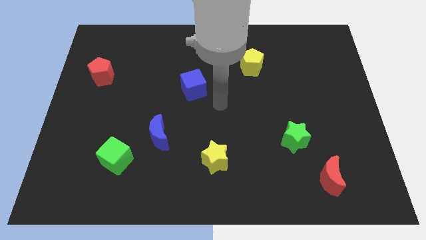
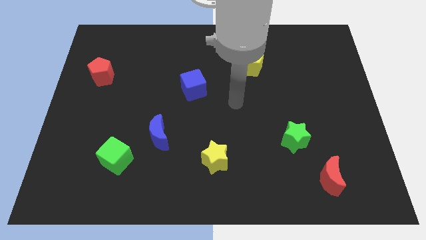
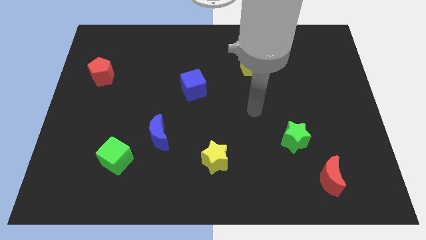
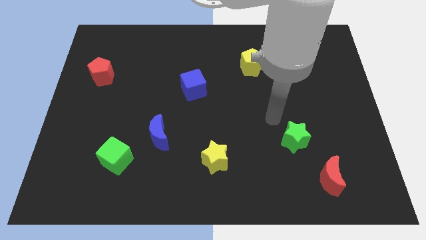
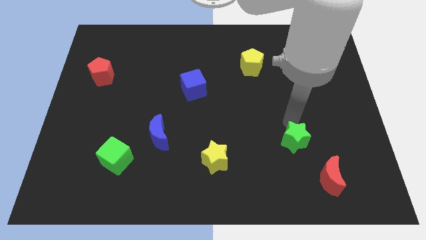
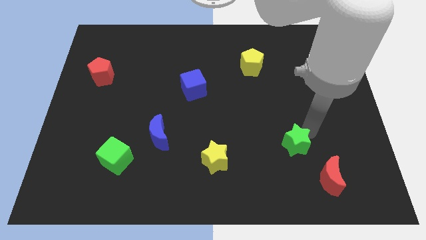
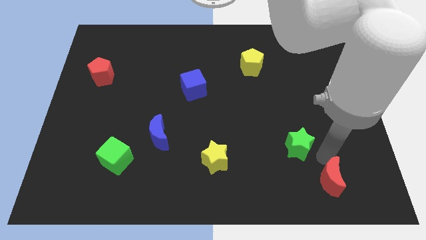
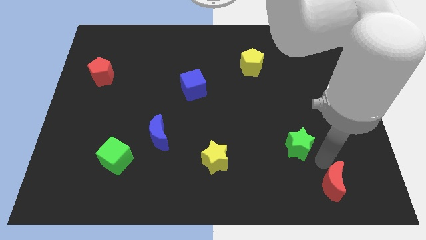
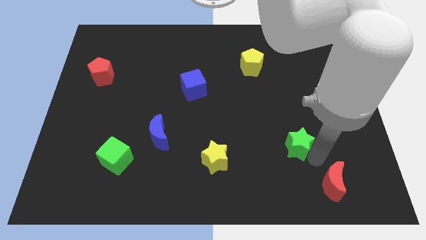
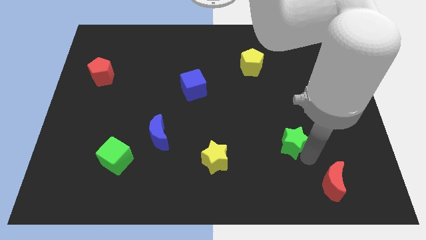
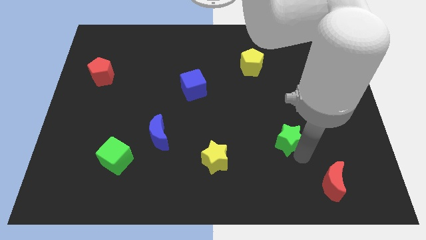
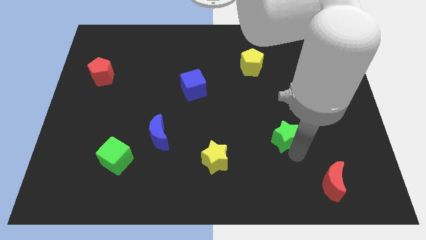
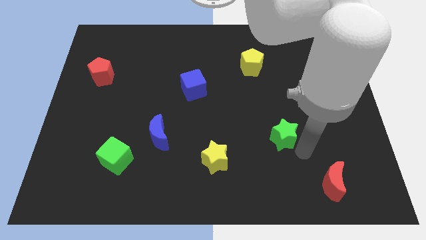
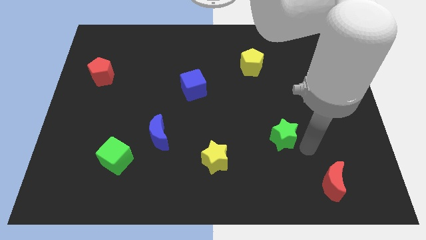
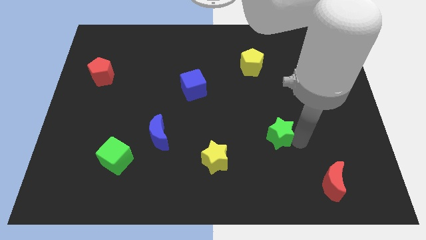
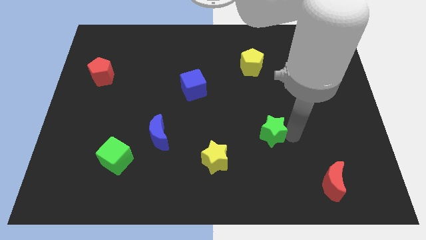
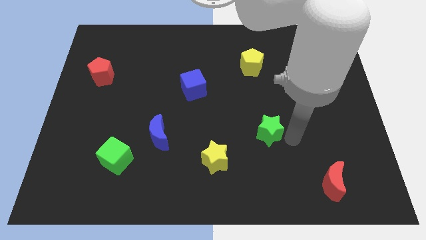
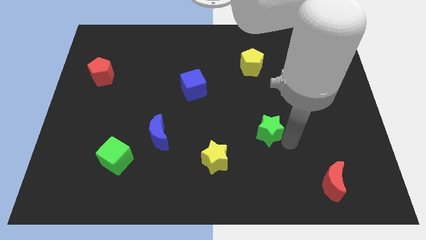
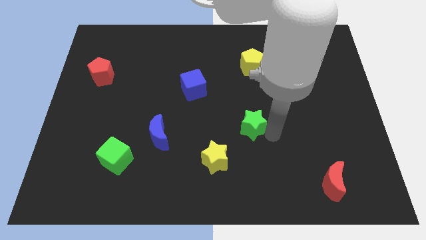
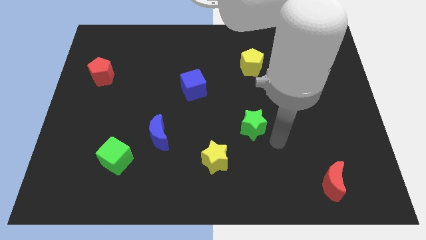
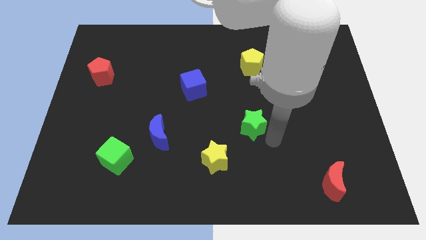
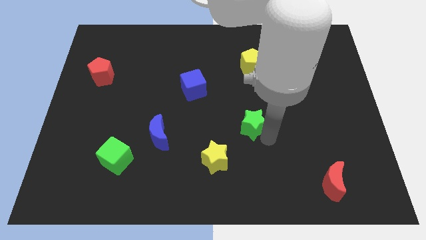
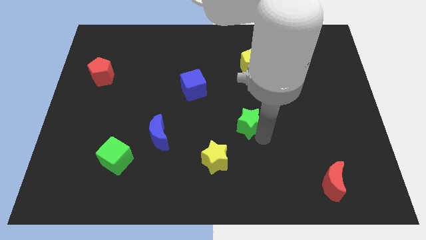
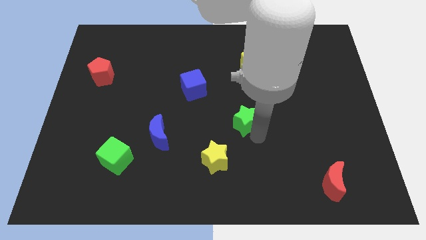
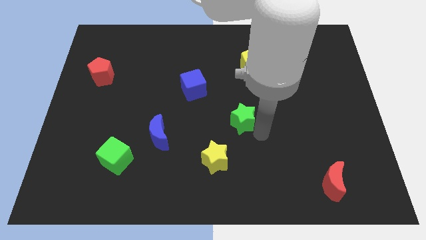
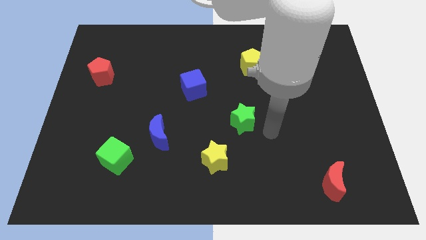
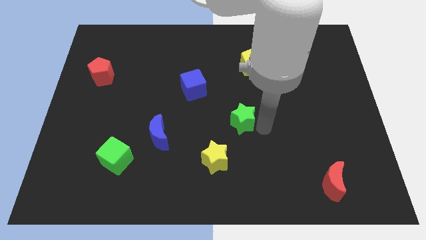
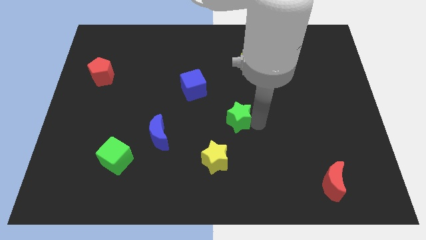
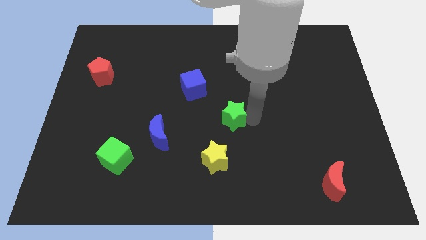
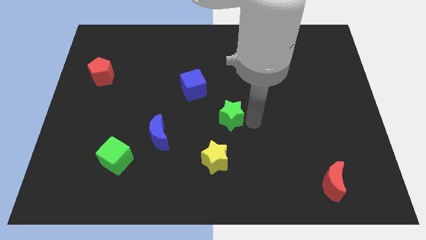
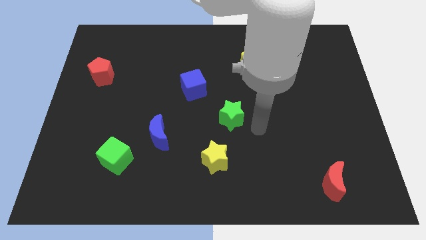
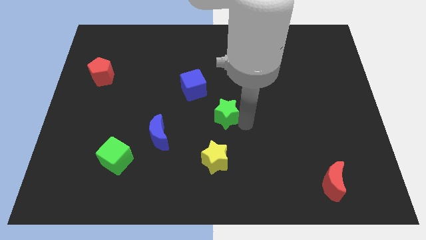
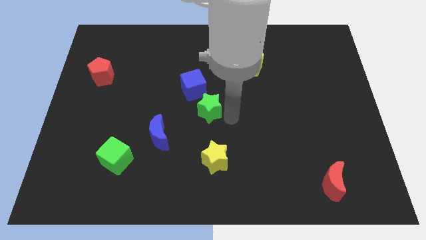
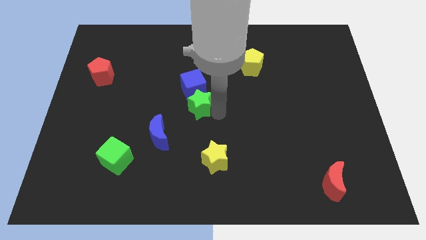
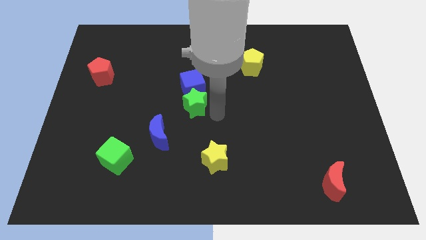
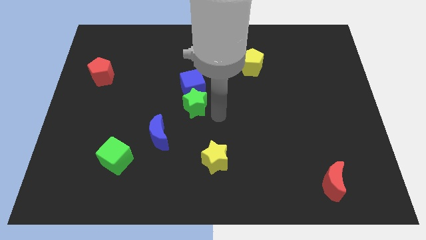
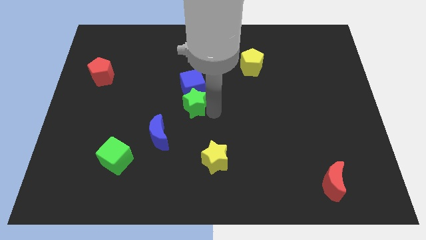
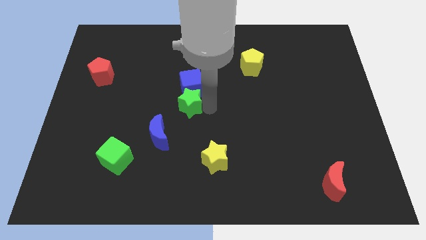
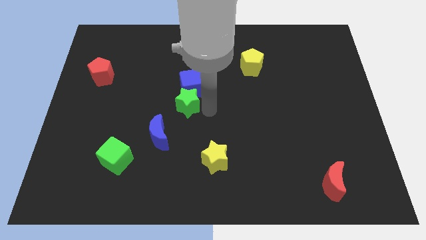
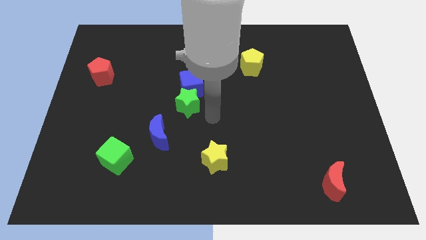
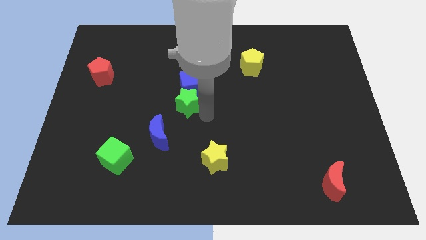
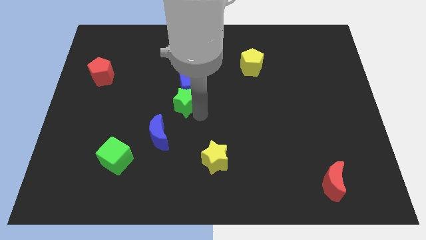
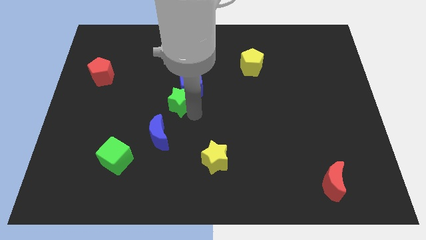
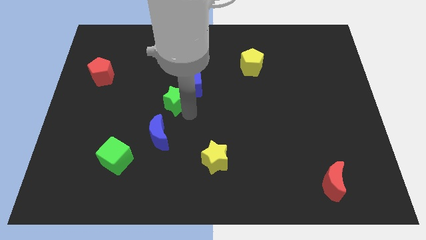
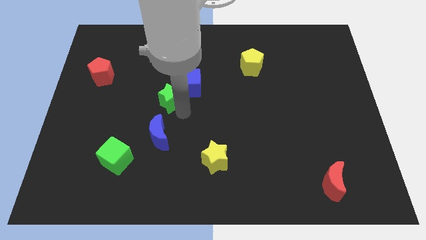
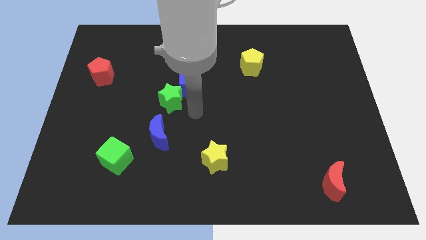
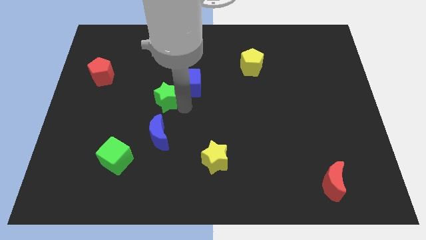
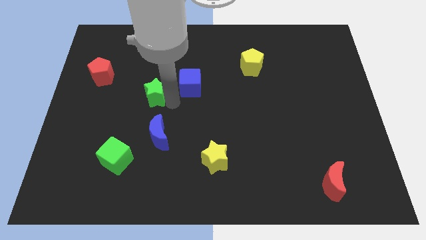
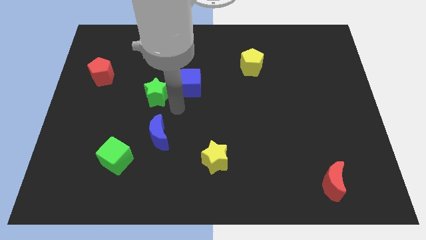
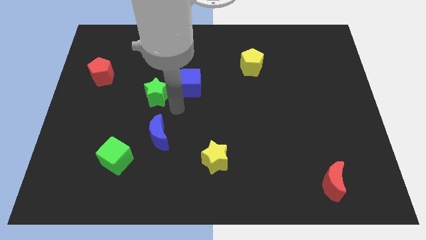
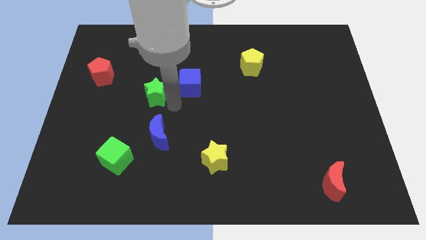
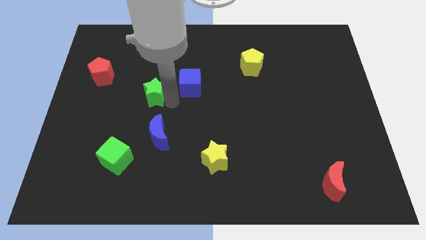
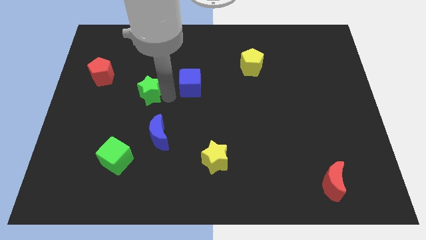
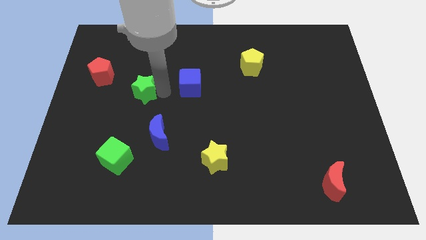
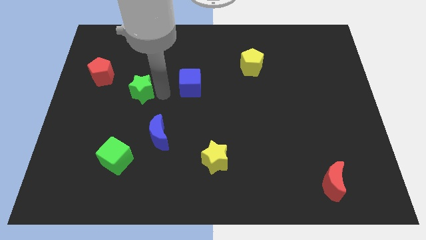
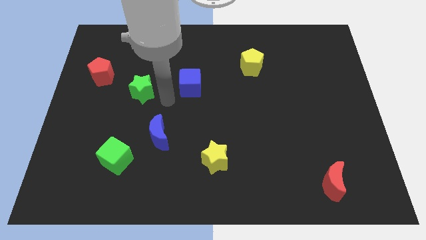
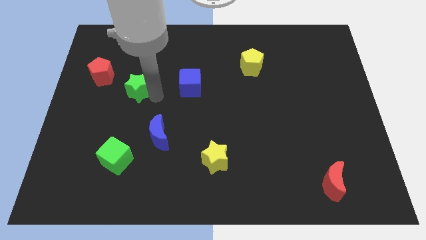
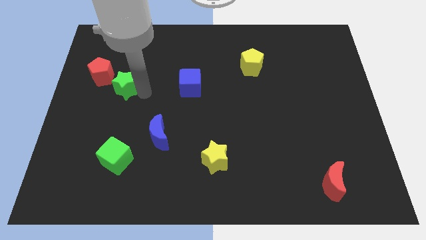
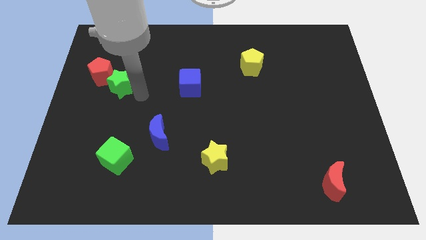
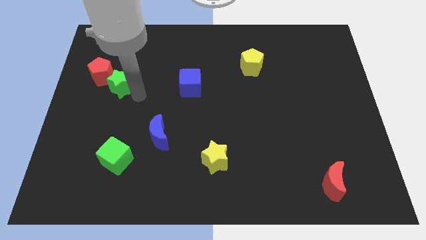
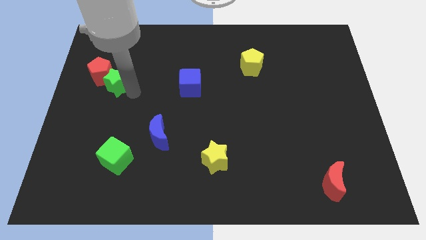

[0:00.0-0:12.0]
put the green star next to the red pentagon

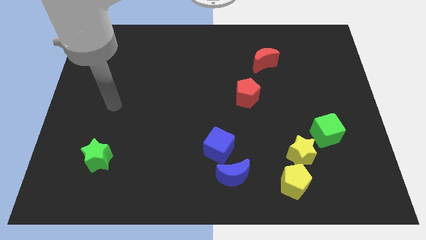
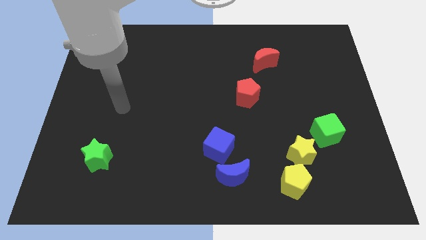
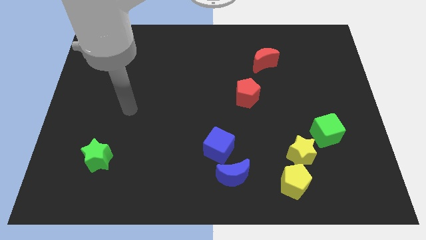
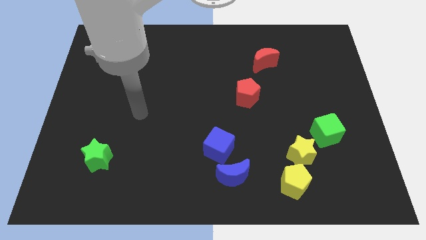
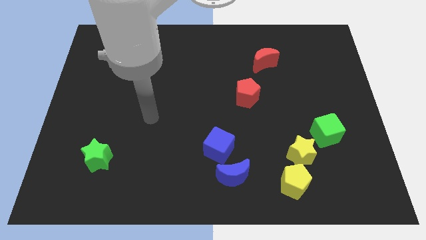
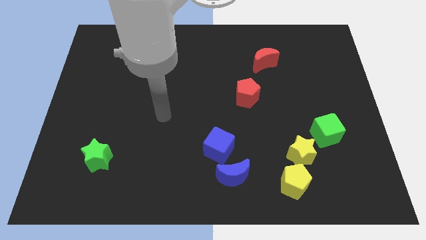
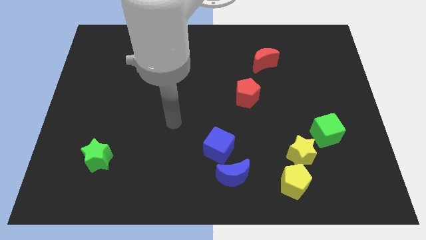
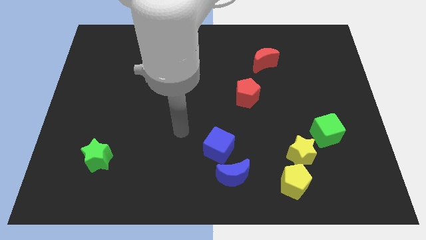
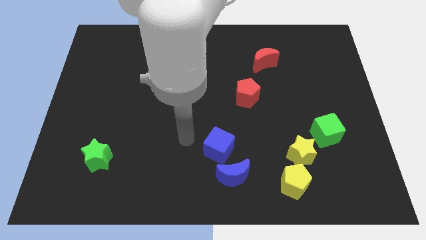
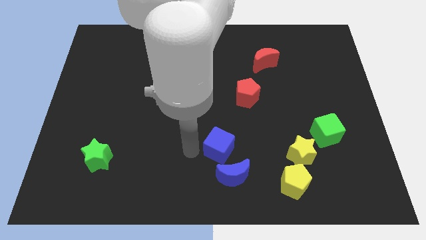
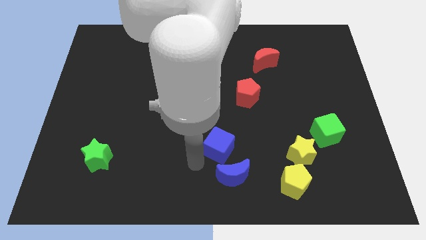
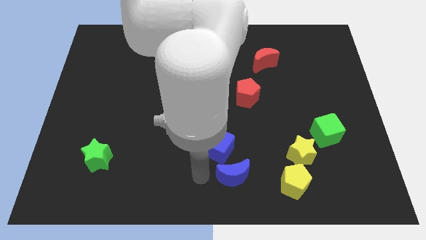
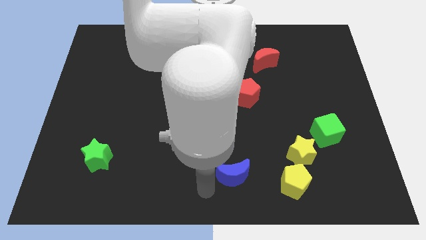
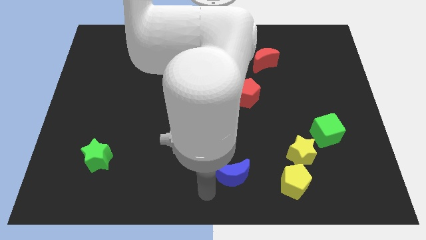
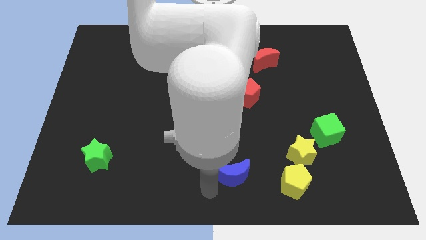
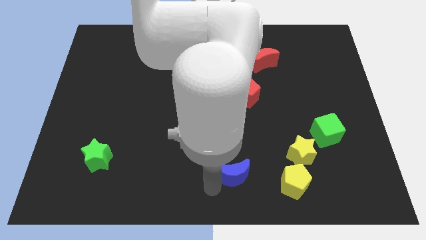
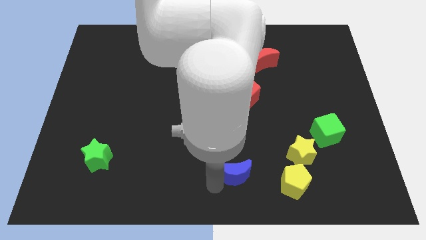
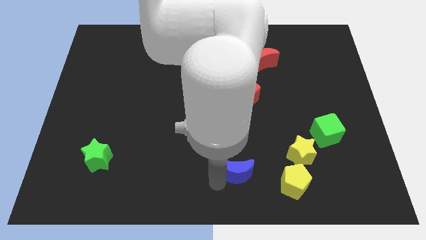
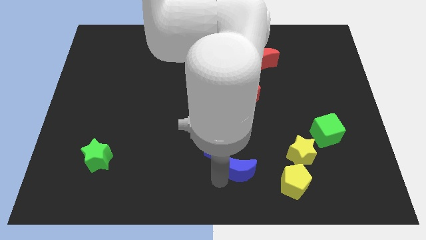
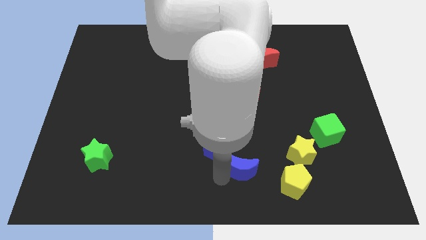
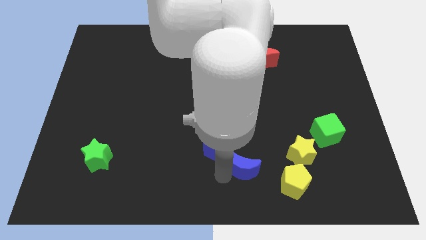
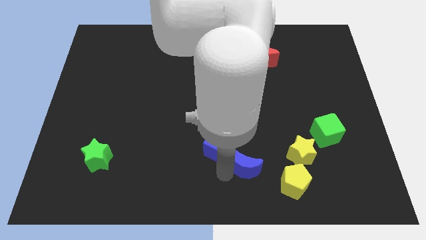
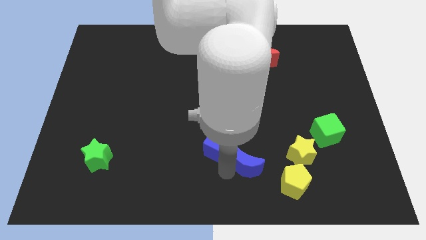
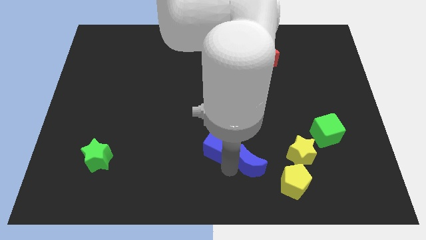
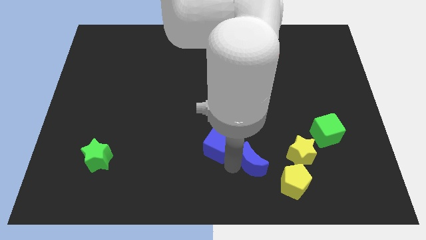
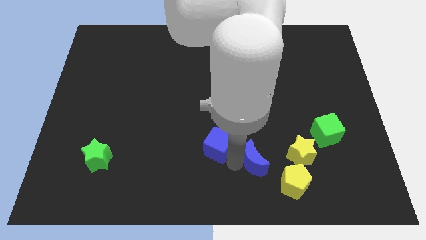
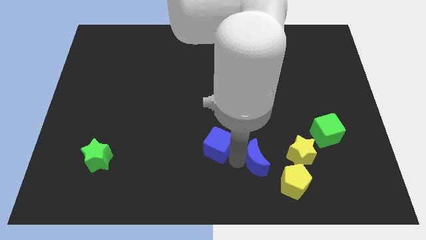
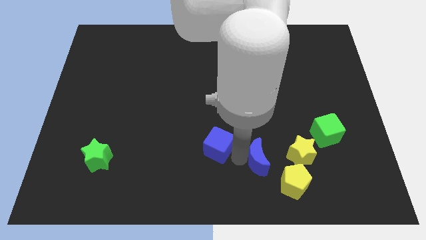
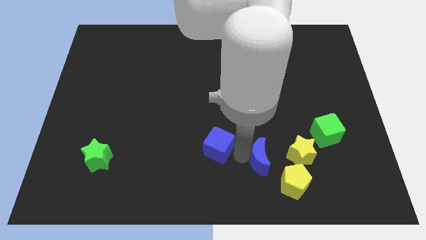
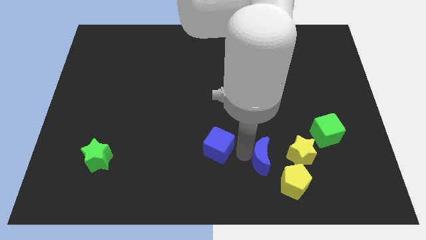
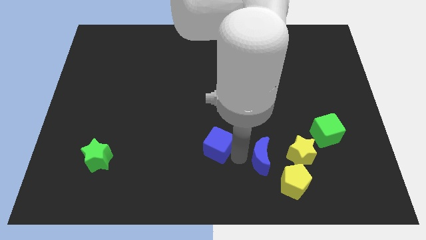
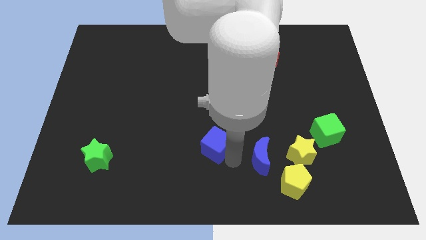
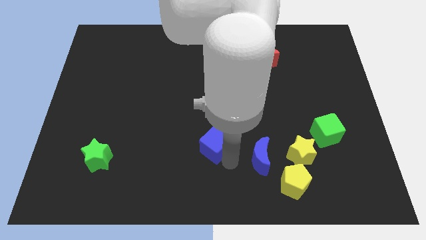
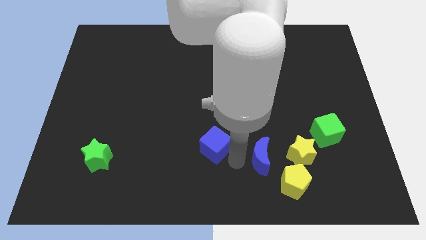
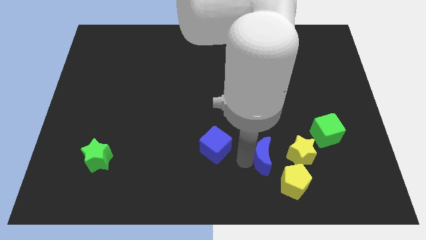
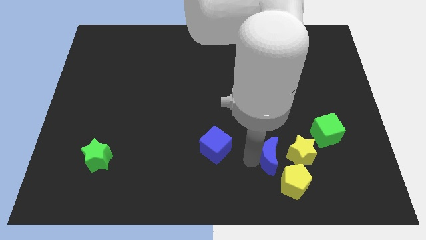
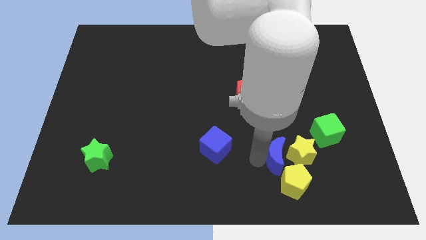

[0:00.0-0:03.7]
slide the blue moon to the yellow star
